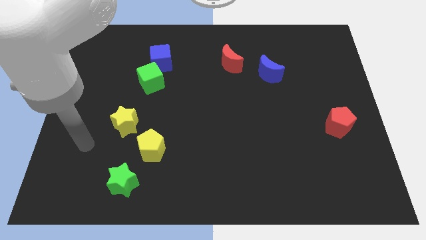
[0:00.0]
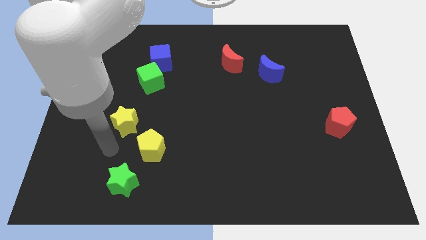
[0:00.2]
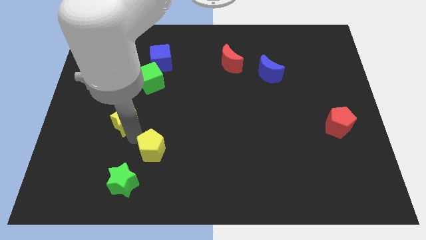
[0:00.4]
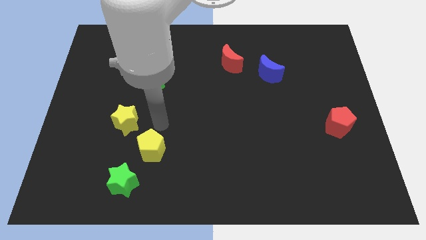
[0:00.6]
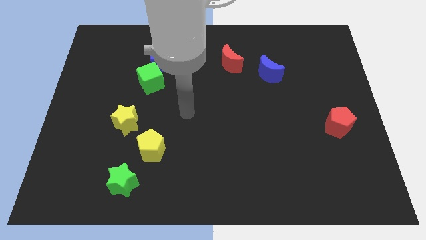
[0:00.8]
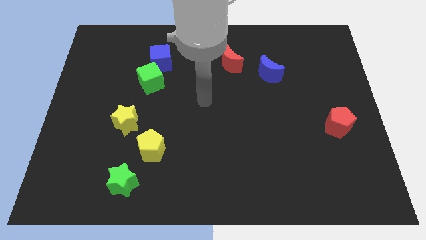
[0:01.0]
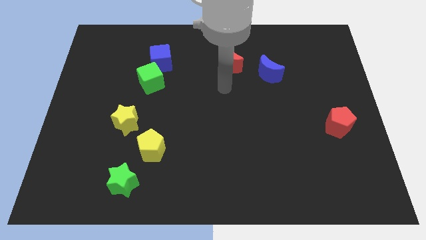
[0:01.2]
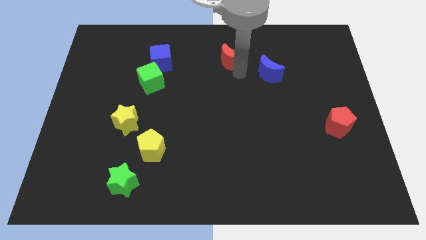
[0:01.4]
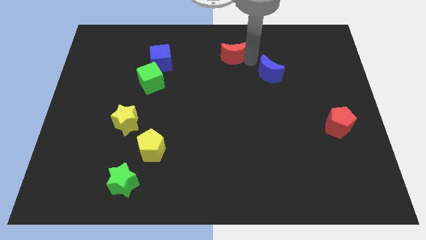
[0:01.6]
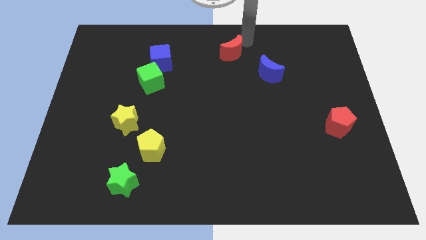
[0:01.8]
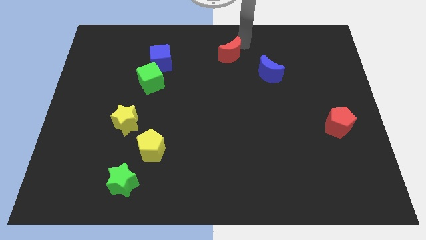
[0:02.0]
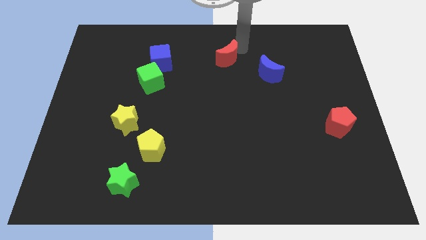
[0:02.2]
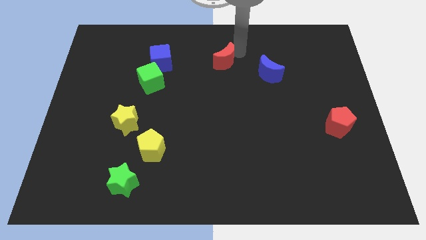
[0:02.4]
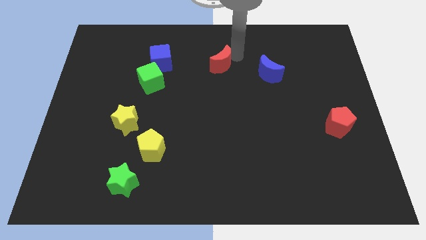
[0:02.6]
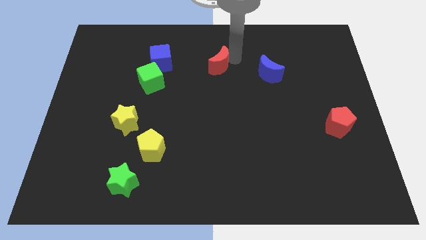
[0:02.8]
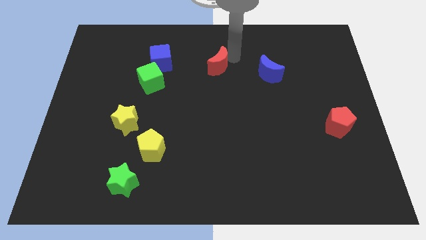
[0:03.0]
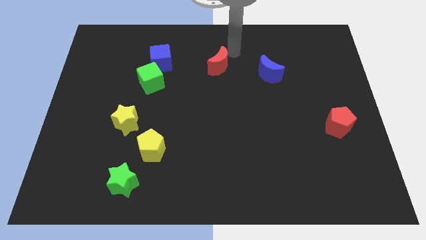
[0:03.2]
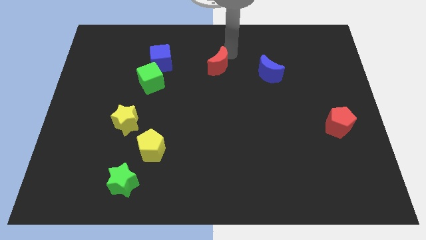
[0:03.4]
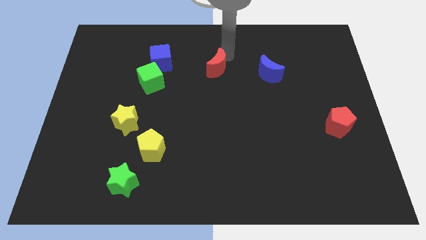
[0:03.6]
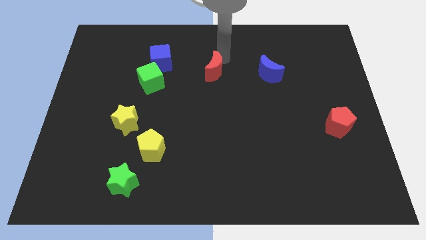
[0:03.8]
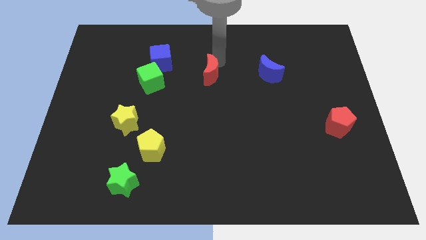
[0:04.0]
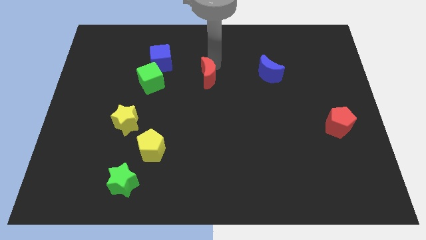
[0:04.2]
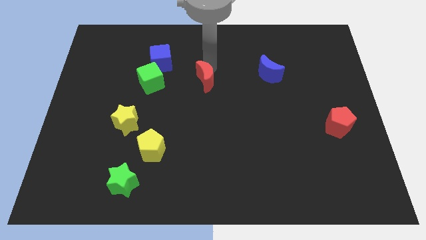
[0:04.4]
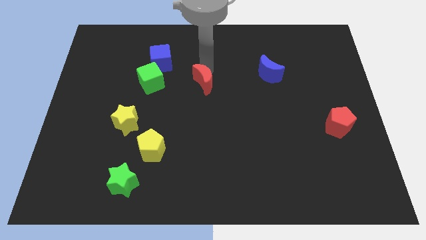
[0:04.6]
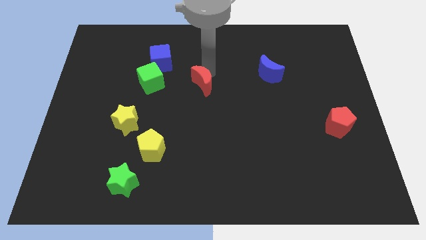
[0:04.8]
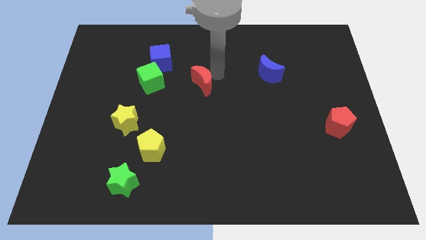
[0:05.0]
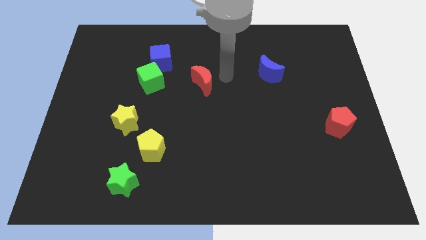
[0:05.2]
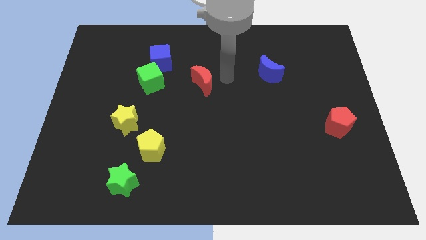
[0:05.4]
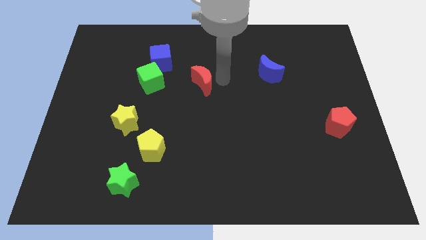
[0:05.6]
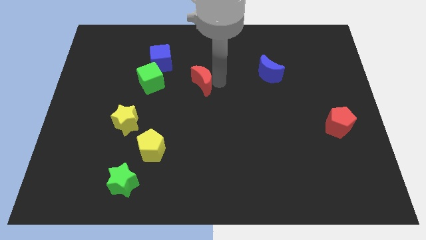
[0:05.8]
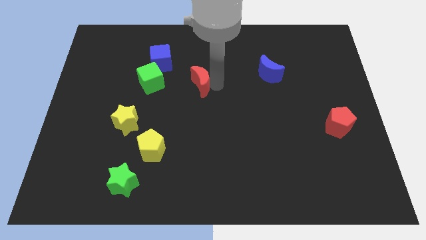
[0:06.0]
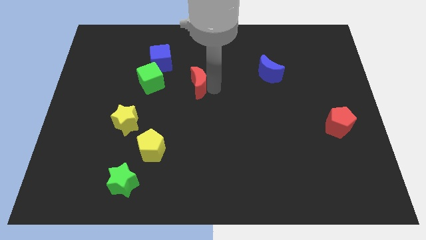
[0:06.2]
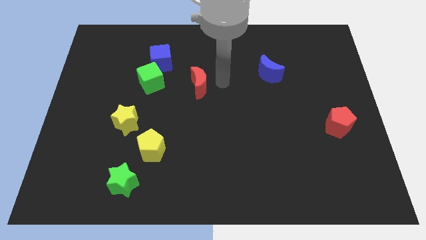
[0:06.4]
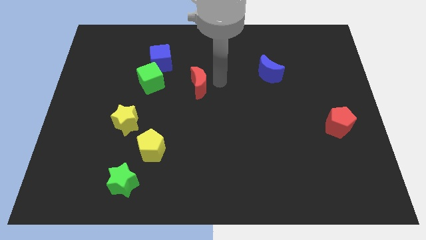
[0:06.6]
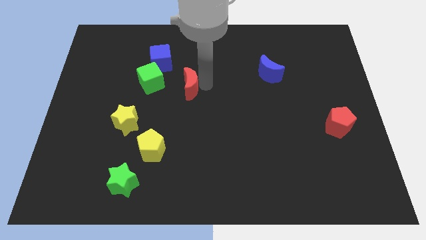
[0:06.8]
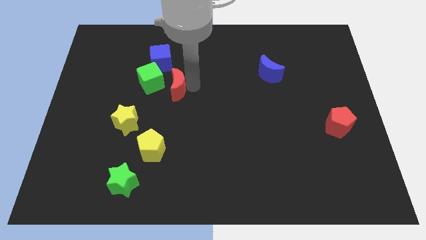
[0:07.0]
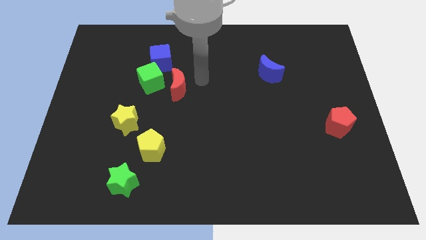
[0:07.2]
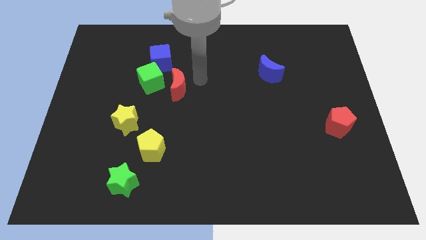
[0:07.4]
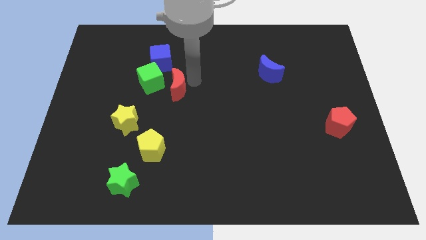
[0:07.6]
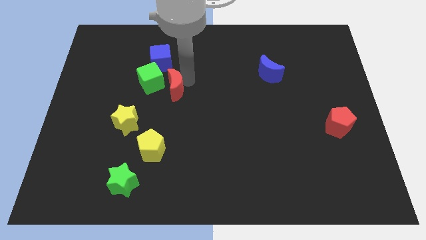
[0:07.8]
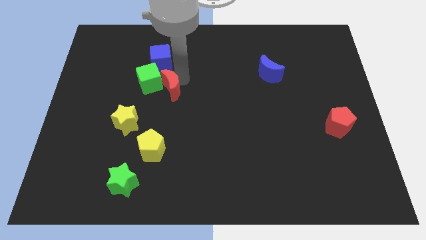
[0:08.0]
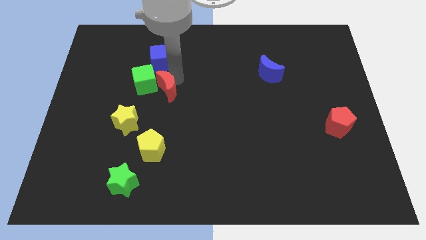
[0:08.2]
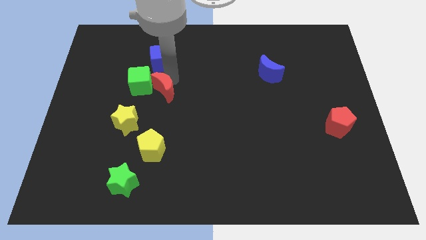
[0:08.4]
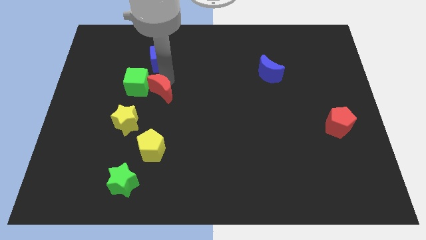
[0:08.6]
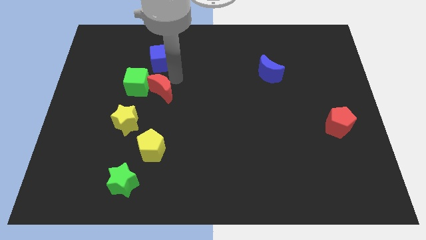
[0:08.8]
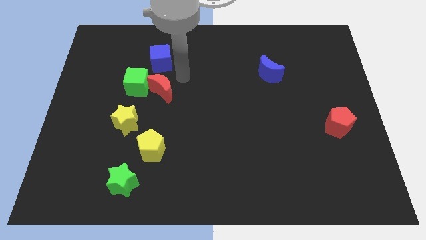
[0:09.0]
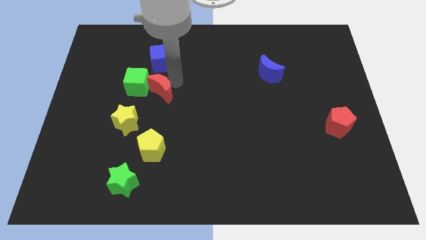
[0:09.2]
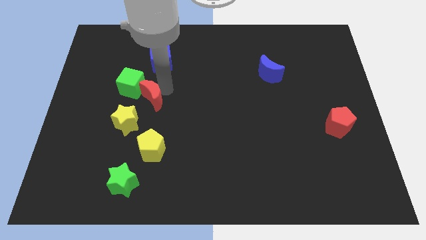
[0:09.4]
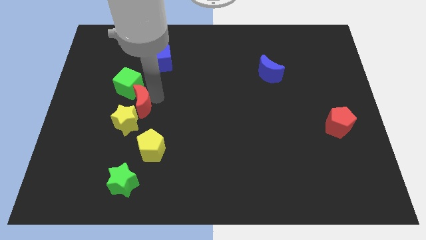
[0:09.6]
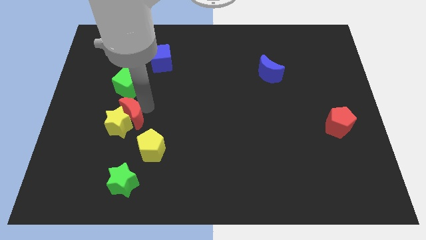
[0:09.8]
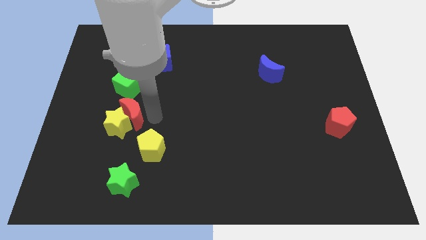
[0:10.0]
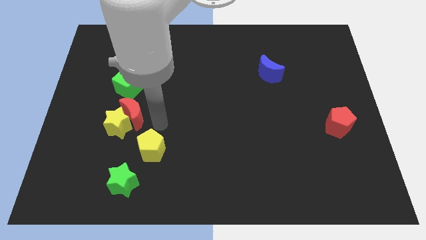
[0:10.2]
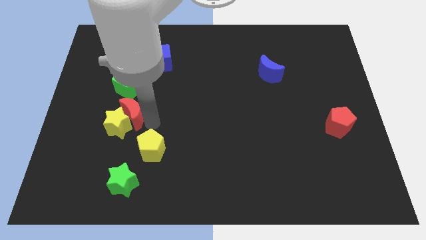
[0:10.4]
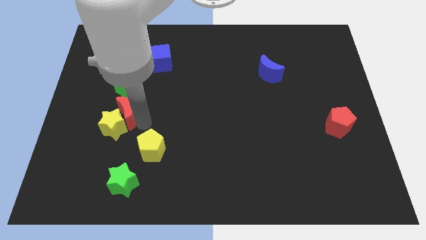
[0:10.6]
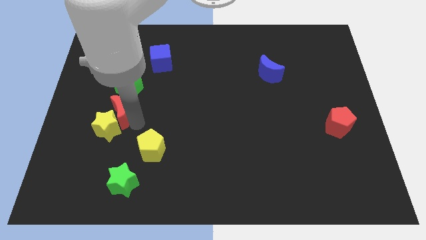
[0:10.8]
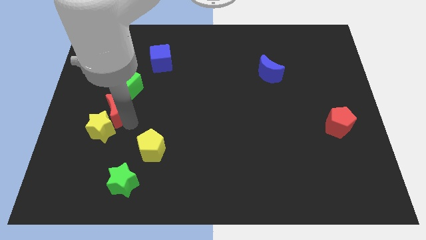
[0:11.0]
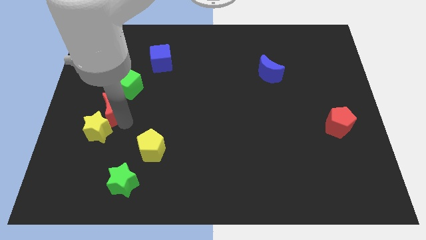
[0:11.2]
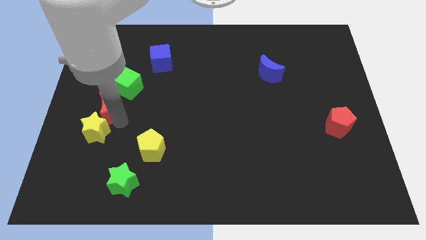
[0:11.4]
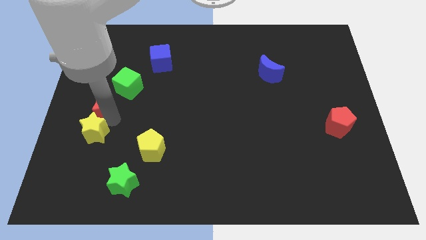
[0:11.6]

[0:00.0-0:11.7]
push the red moon to the center left

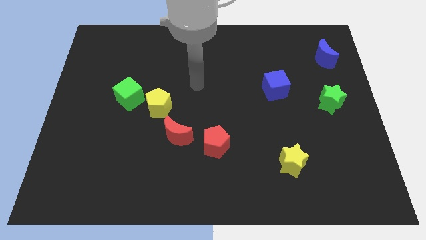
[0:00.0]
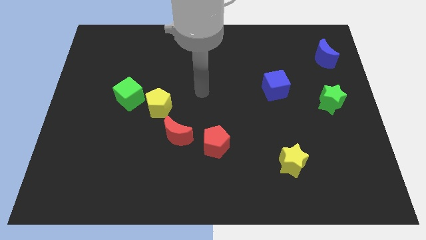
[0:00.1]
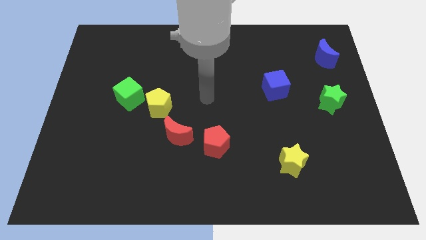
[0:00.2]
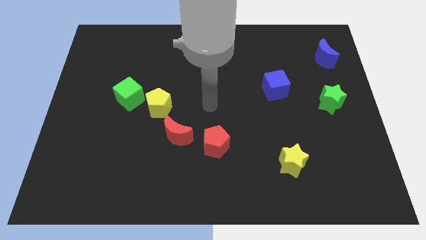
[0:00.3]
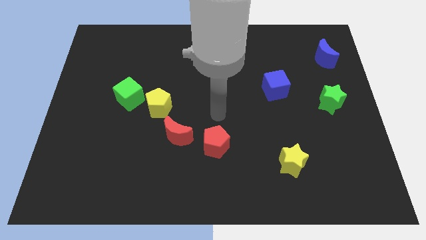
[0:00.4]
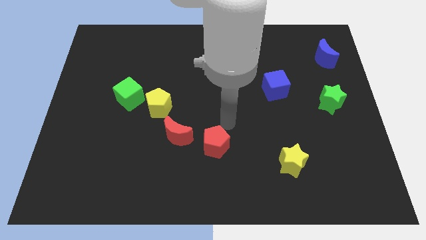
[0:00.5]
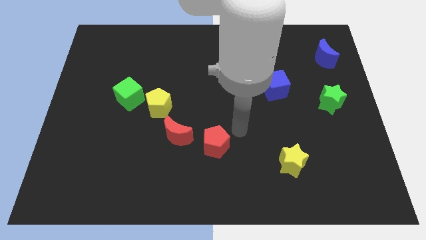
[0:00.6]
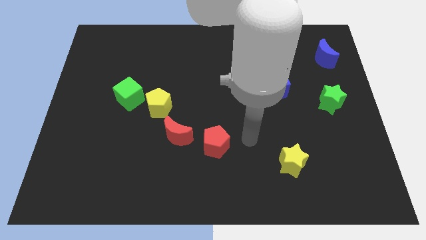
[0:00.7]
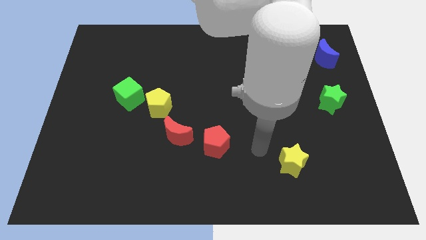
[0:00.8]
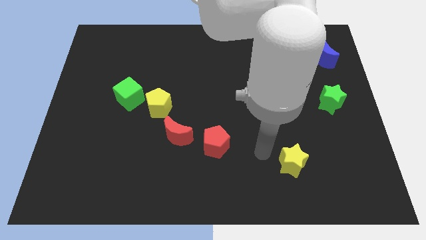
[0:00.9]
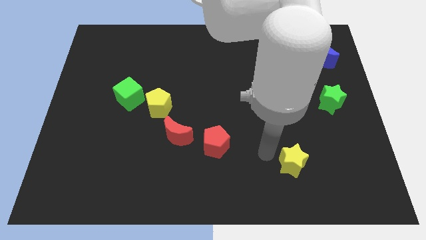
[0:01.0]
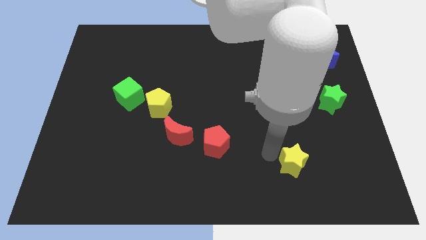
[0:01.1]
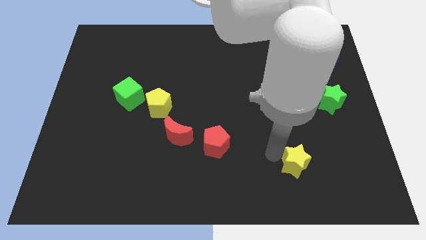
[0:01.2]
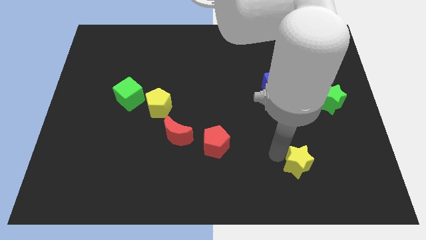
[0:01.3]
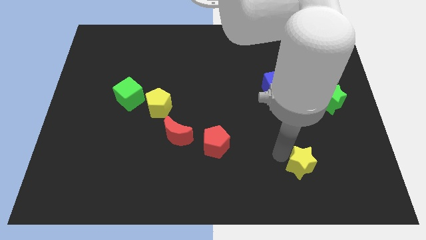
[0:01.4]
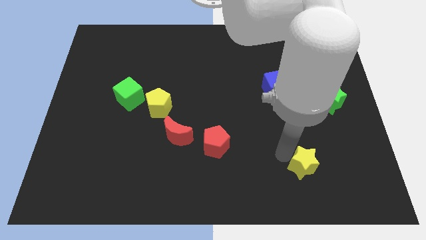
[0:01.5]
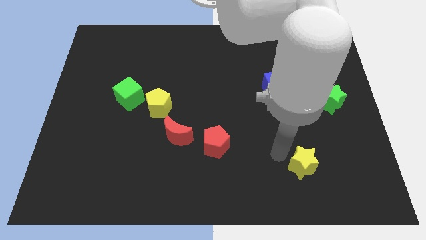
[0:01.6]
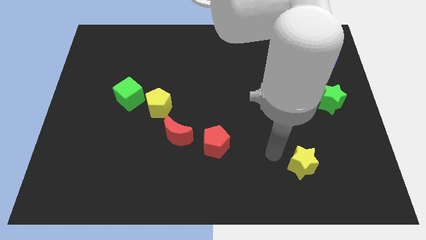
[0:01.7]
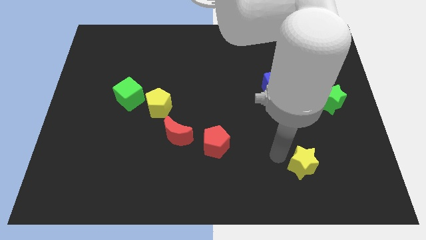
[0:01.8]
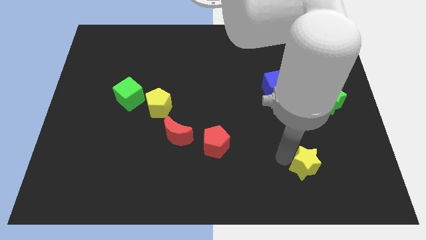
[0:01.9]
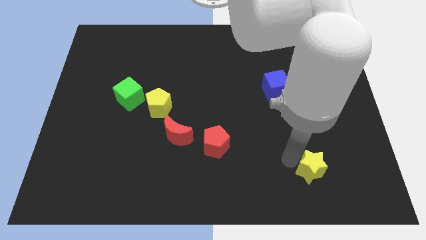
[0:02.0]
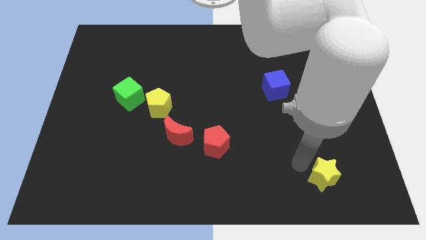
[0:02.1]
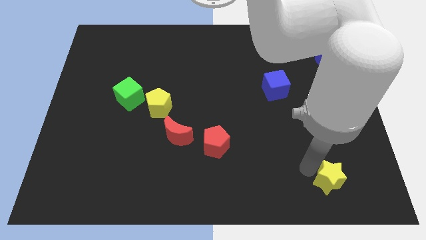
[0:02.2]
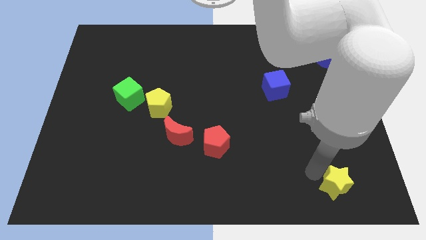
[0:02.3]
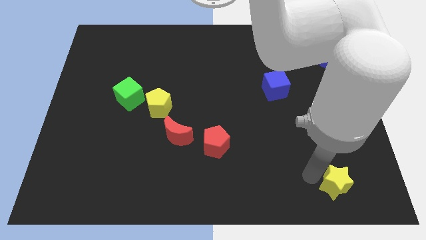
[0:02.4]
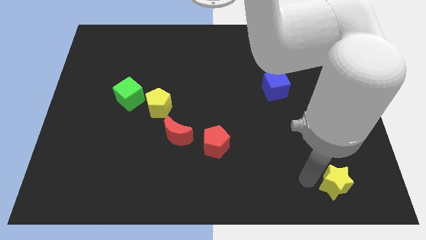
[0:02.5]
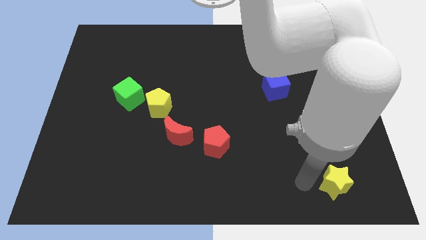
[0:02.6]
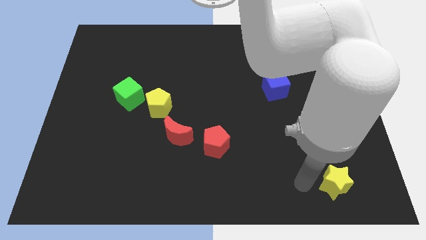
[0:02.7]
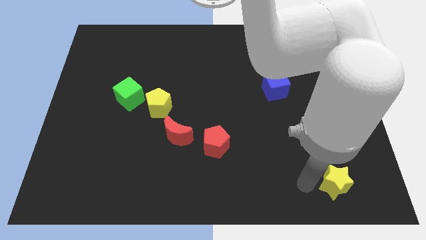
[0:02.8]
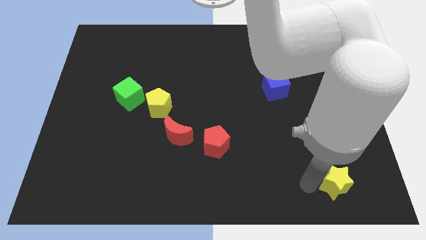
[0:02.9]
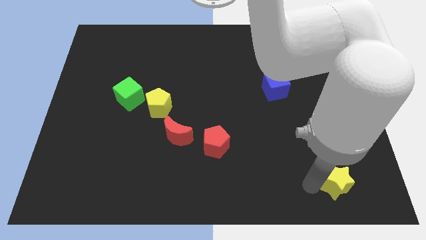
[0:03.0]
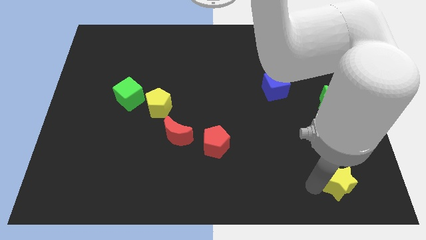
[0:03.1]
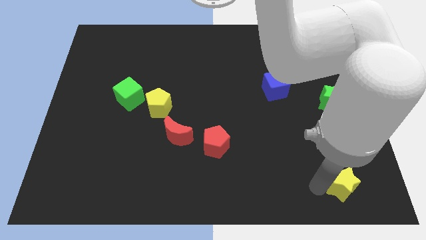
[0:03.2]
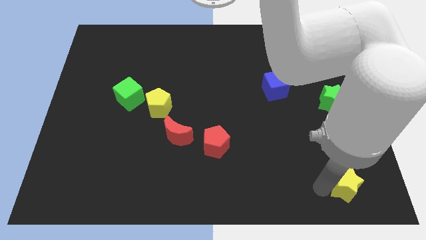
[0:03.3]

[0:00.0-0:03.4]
put the yellow star to the bottom right of the board
